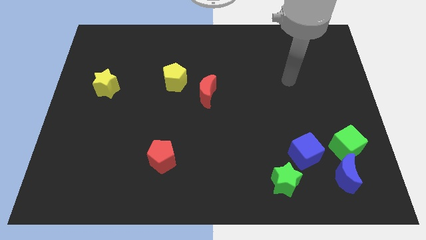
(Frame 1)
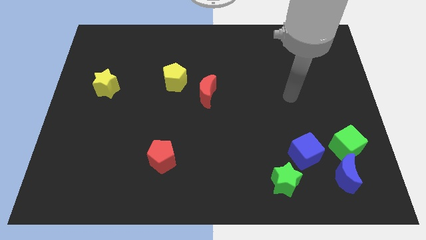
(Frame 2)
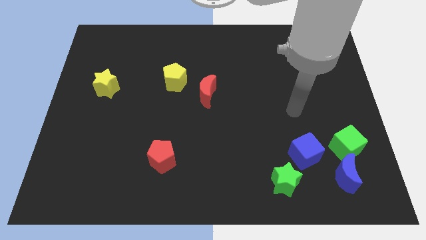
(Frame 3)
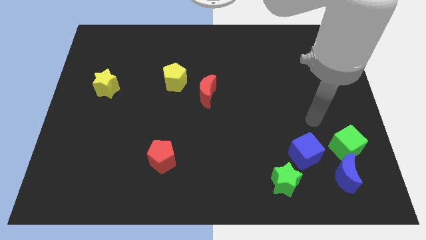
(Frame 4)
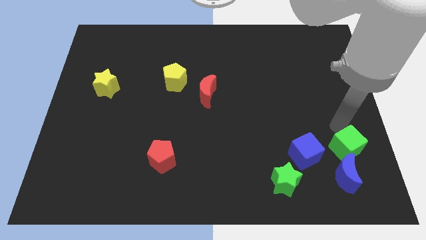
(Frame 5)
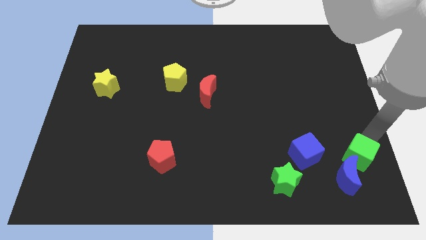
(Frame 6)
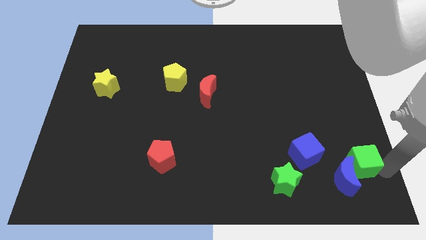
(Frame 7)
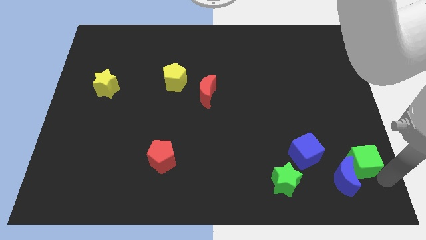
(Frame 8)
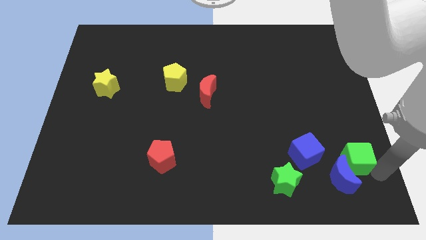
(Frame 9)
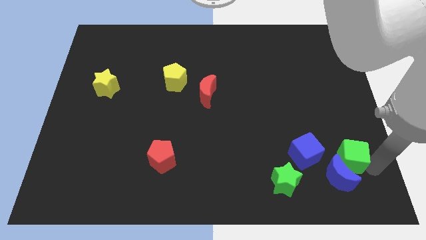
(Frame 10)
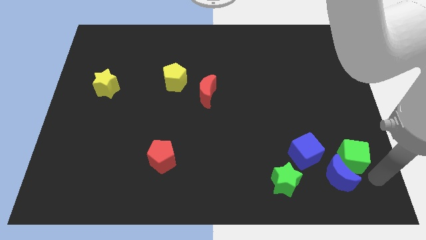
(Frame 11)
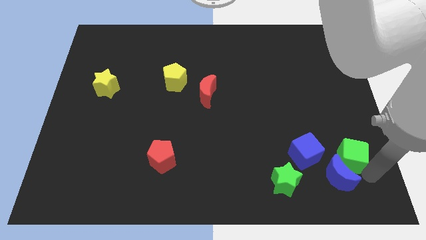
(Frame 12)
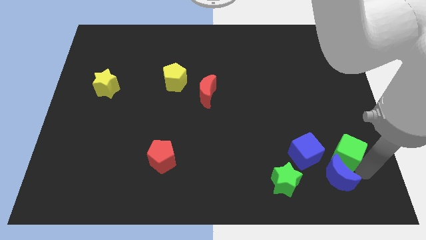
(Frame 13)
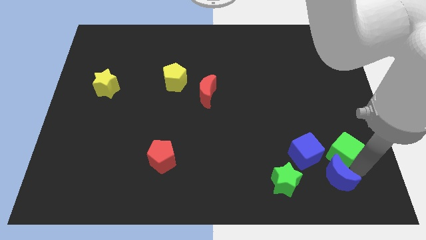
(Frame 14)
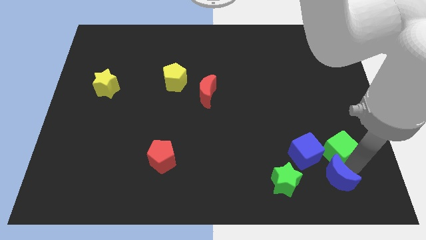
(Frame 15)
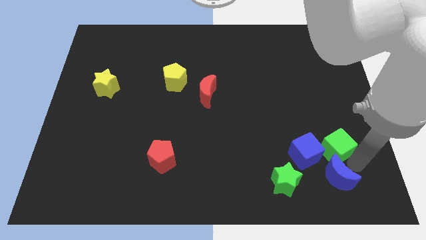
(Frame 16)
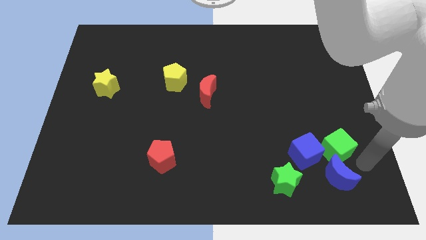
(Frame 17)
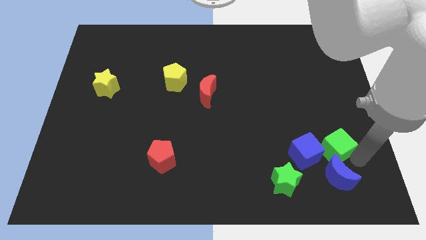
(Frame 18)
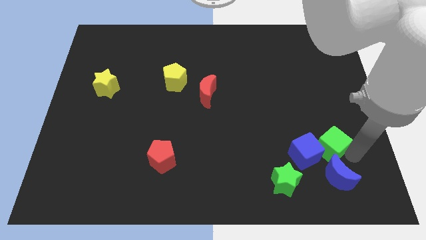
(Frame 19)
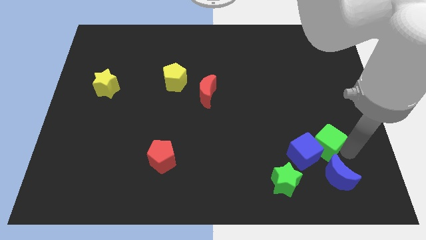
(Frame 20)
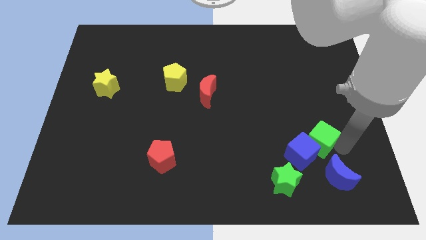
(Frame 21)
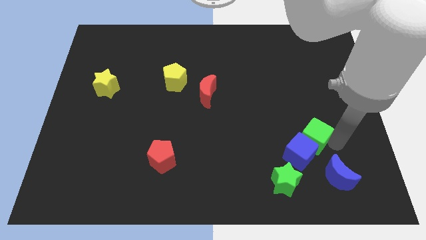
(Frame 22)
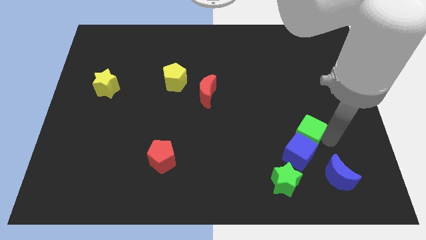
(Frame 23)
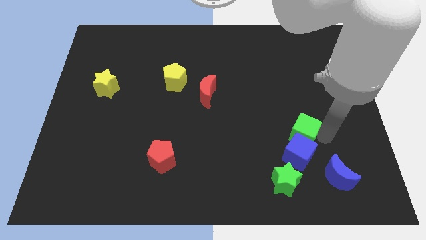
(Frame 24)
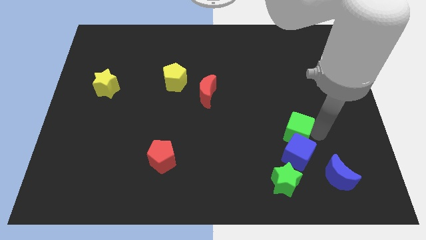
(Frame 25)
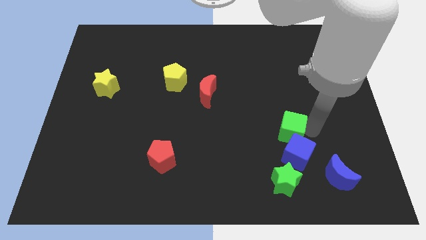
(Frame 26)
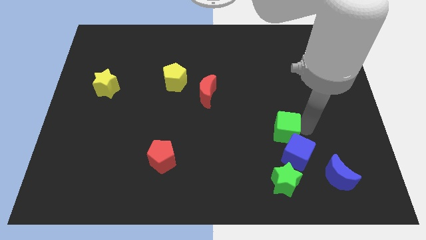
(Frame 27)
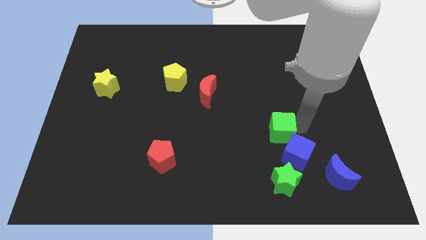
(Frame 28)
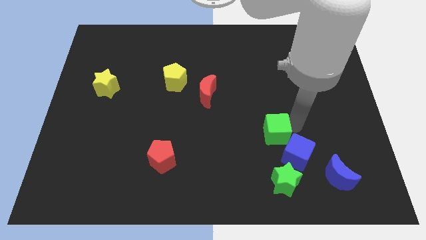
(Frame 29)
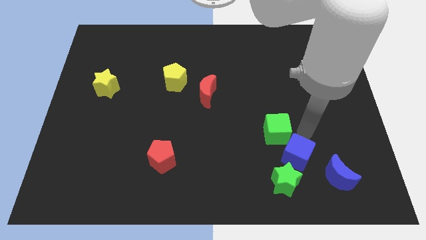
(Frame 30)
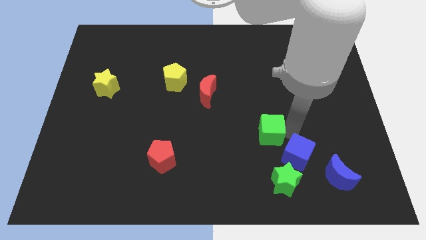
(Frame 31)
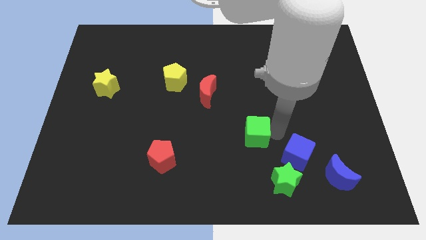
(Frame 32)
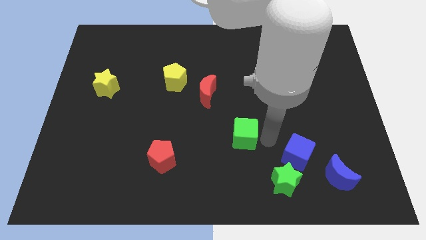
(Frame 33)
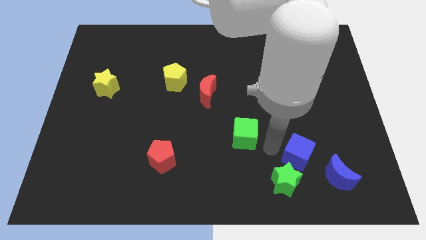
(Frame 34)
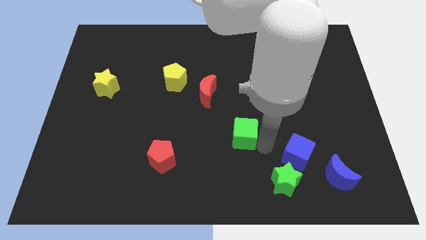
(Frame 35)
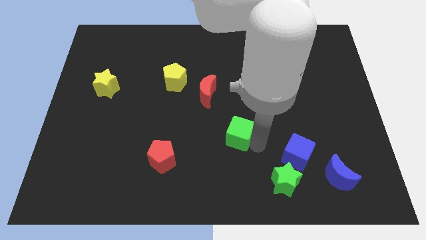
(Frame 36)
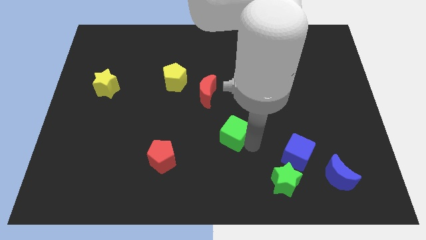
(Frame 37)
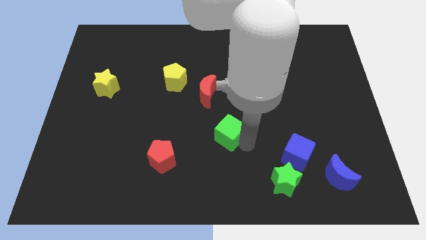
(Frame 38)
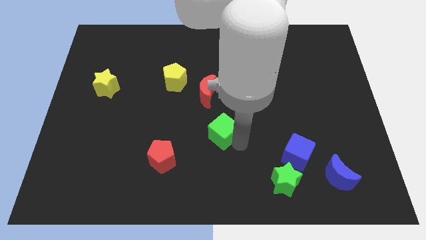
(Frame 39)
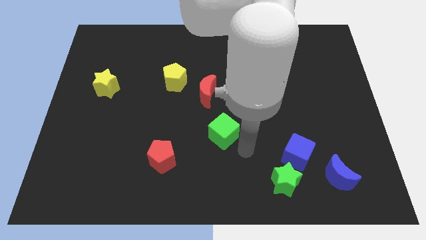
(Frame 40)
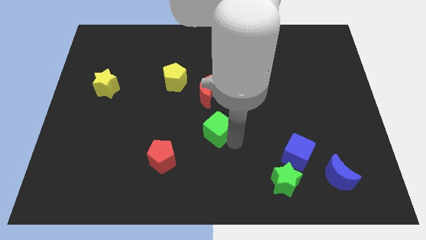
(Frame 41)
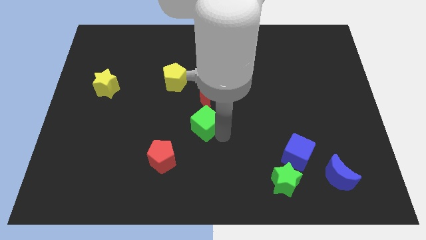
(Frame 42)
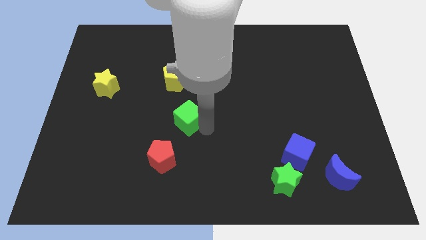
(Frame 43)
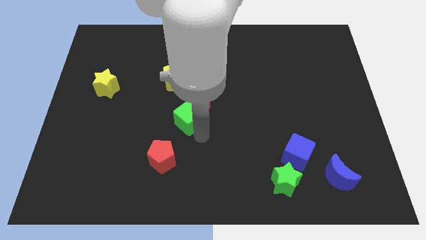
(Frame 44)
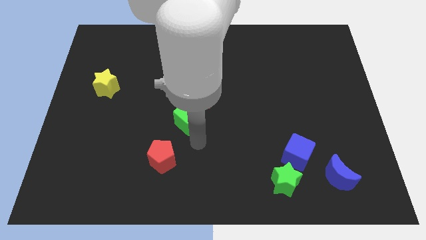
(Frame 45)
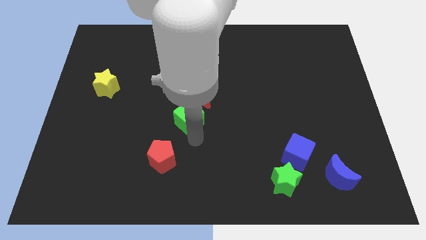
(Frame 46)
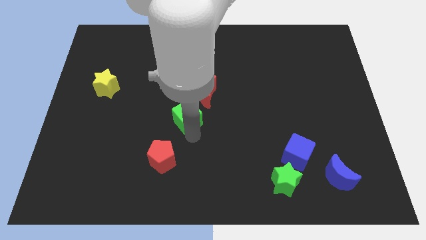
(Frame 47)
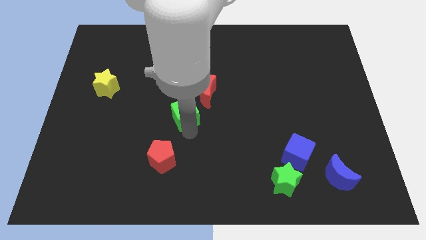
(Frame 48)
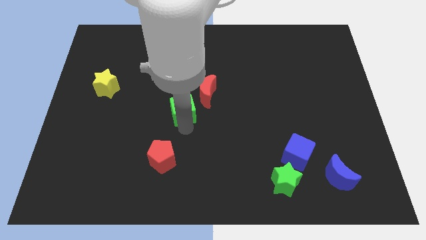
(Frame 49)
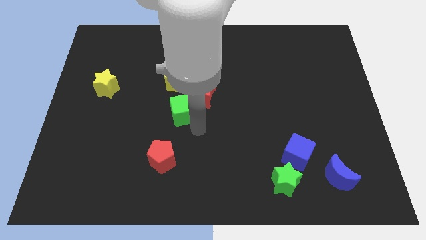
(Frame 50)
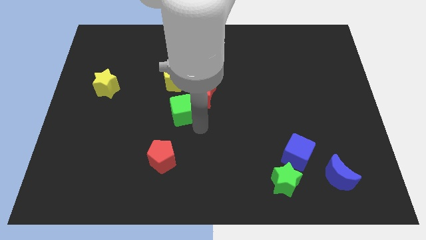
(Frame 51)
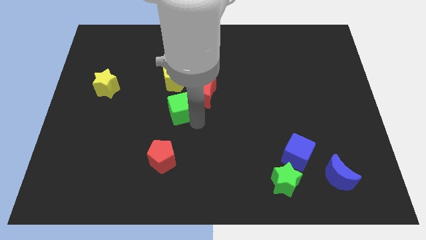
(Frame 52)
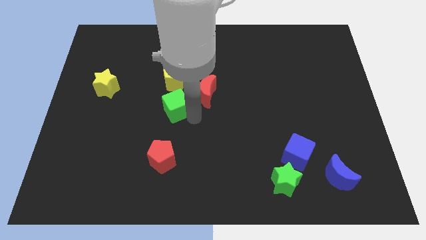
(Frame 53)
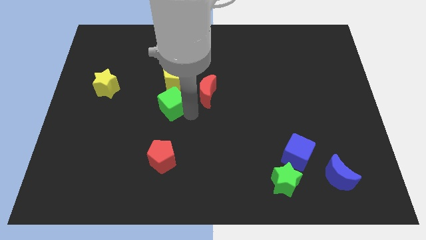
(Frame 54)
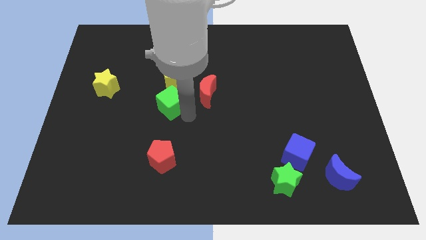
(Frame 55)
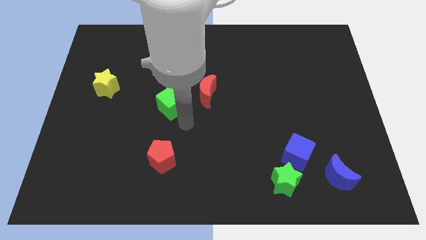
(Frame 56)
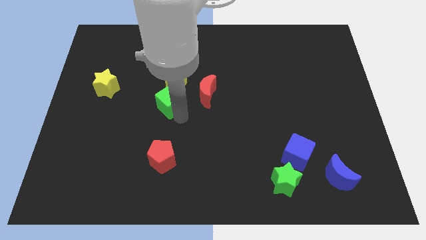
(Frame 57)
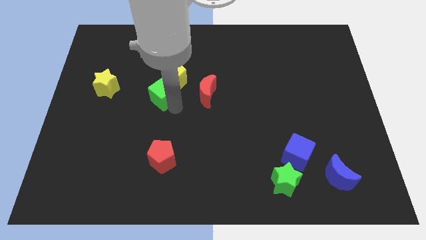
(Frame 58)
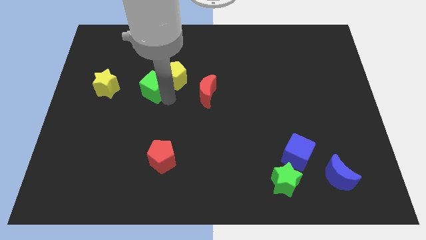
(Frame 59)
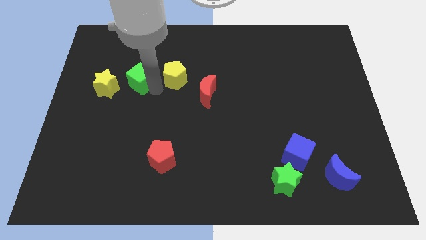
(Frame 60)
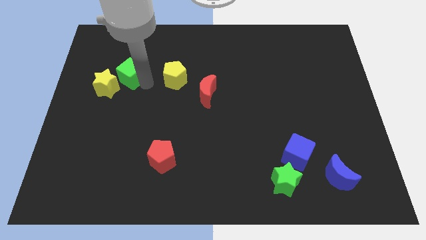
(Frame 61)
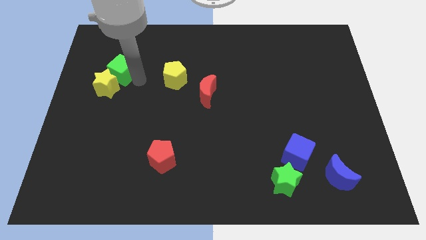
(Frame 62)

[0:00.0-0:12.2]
push the green cube above the yellow star

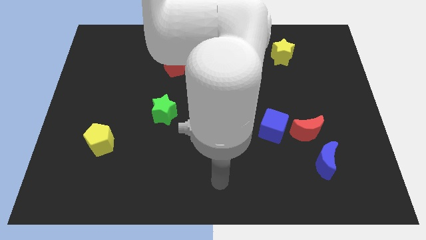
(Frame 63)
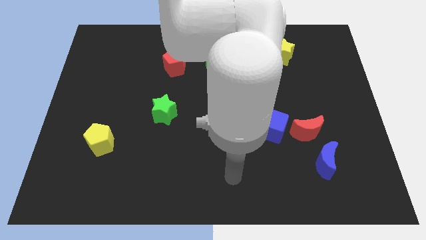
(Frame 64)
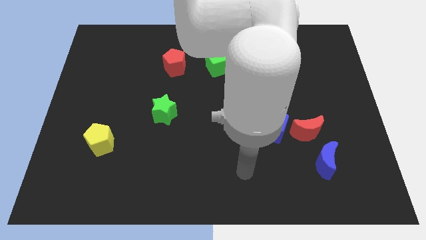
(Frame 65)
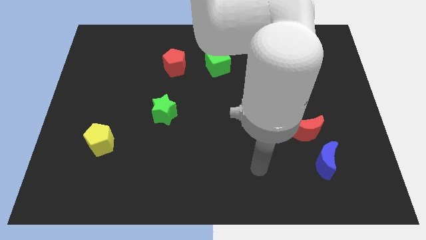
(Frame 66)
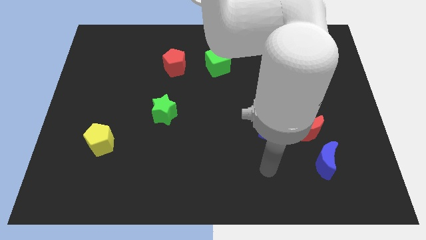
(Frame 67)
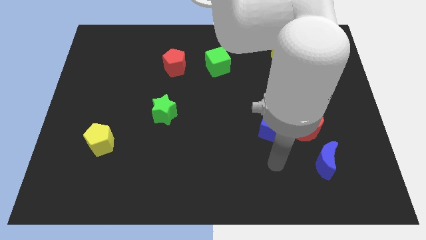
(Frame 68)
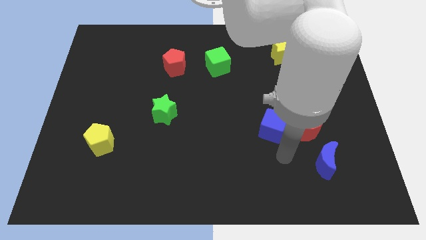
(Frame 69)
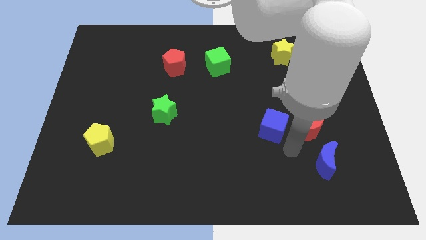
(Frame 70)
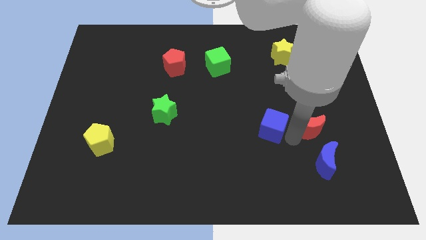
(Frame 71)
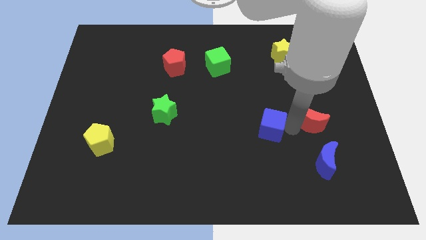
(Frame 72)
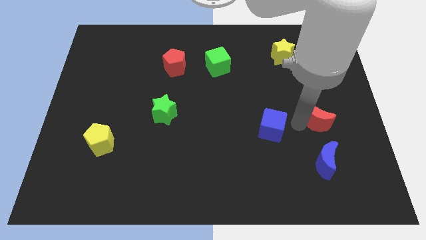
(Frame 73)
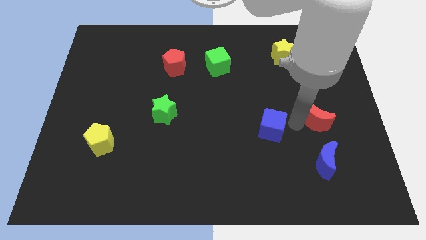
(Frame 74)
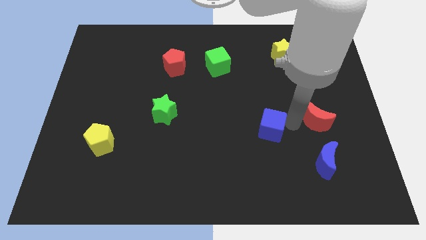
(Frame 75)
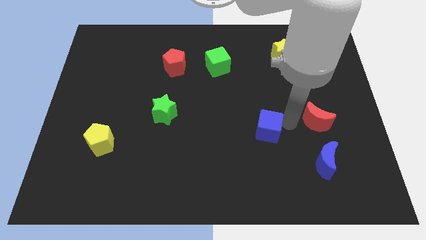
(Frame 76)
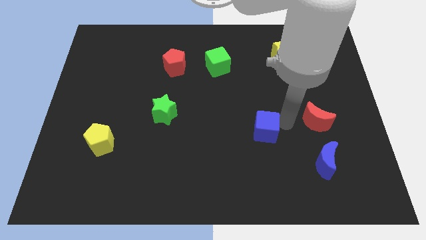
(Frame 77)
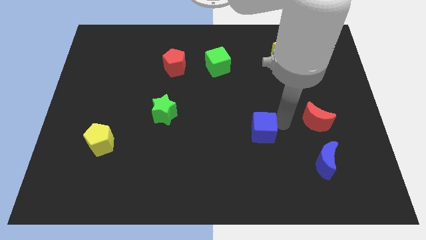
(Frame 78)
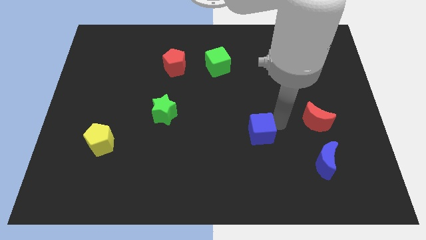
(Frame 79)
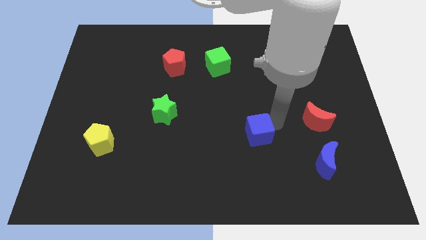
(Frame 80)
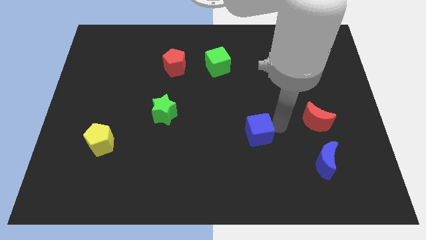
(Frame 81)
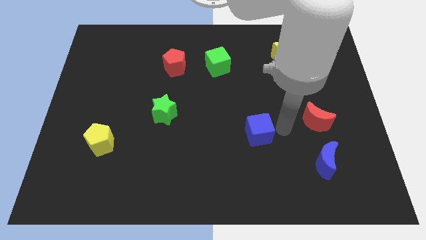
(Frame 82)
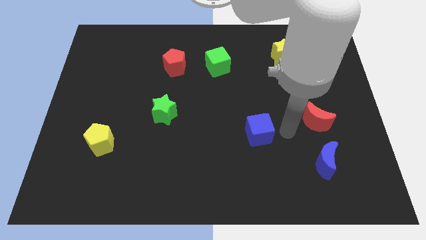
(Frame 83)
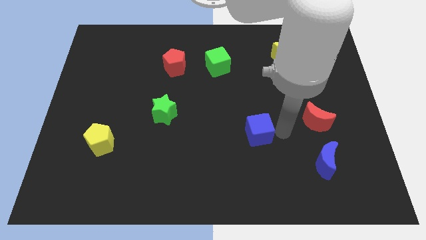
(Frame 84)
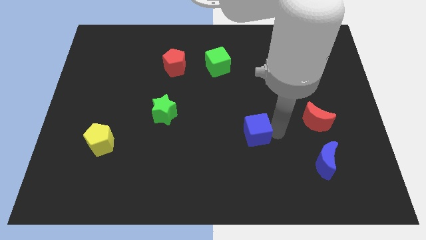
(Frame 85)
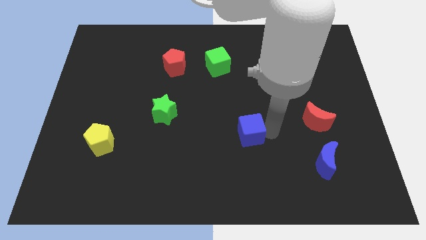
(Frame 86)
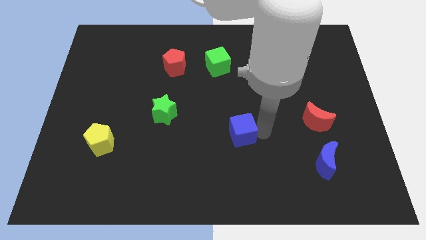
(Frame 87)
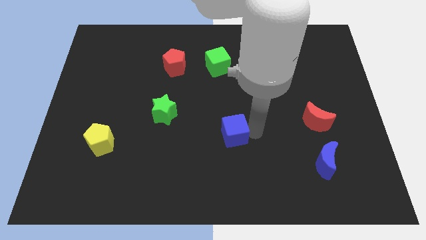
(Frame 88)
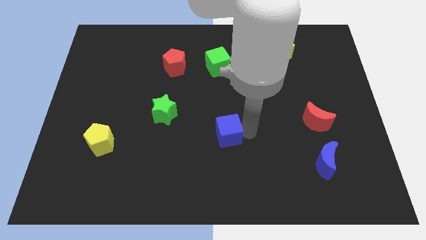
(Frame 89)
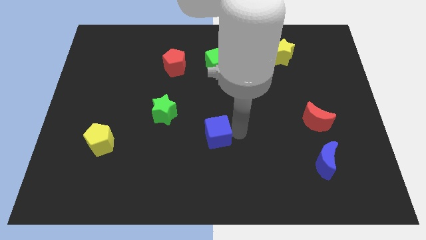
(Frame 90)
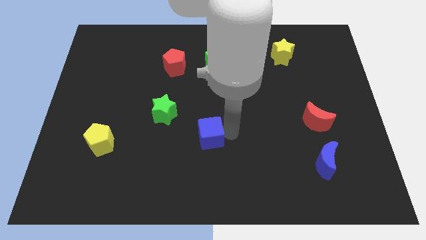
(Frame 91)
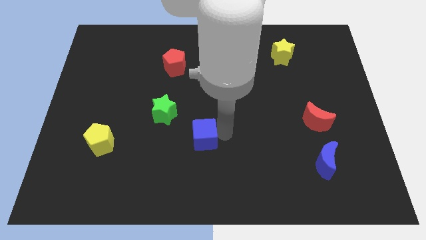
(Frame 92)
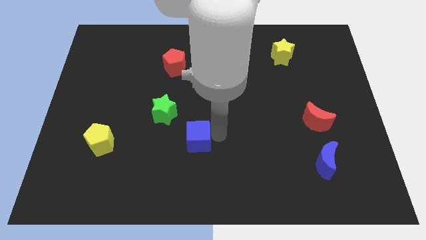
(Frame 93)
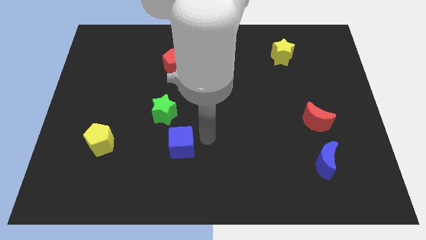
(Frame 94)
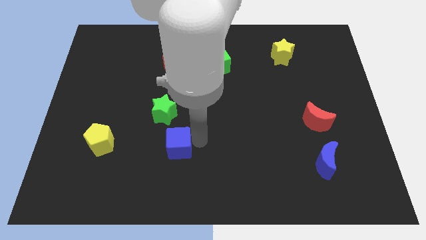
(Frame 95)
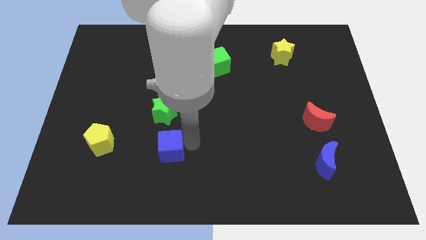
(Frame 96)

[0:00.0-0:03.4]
slide the blue cube to the right of the yellow pentagon
